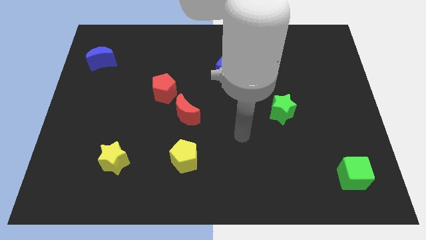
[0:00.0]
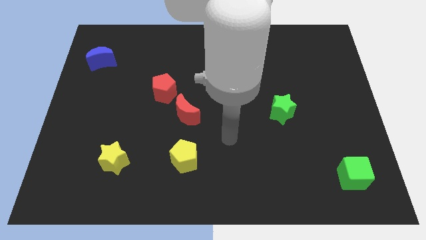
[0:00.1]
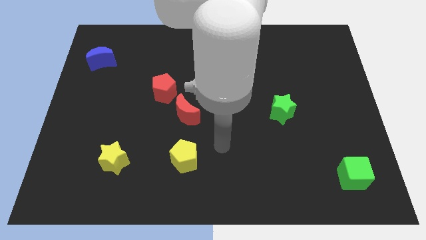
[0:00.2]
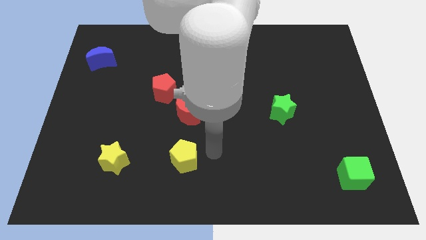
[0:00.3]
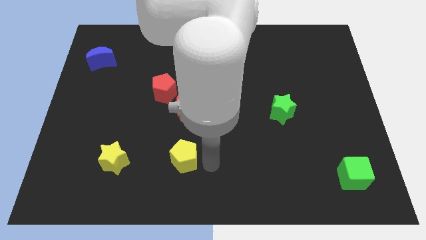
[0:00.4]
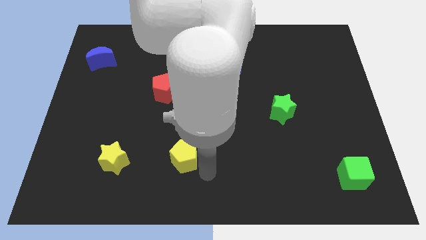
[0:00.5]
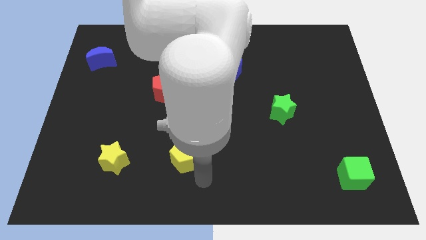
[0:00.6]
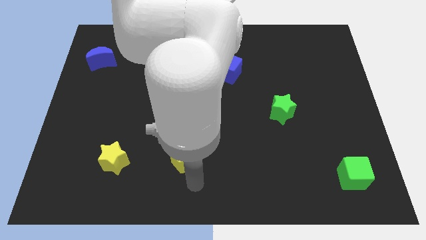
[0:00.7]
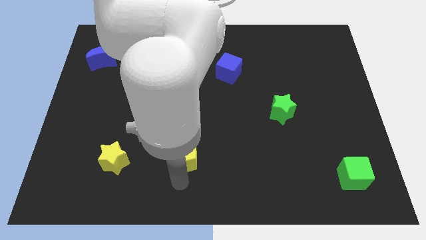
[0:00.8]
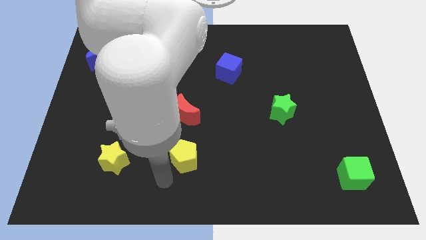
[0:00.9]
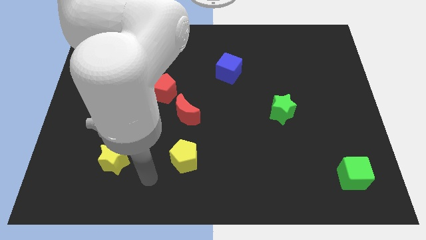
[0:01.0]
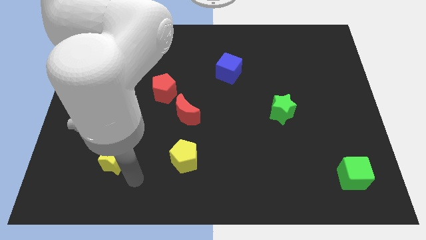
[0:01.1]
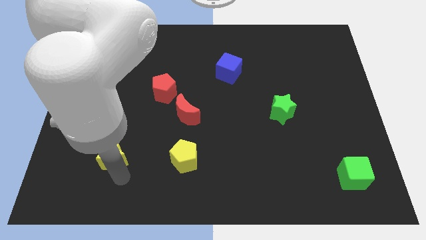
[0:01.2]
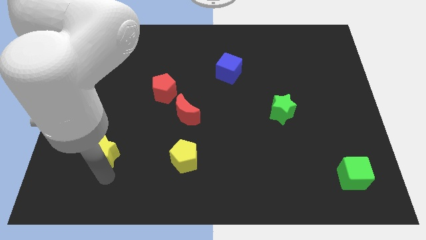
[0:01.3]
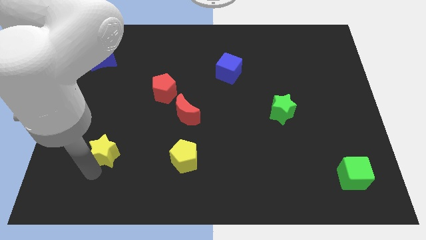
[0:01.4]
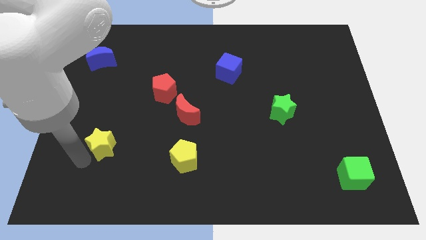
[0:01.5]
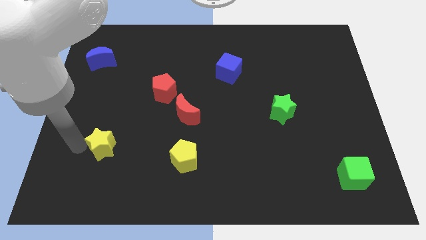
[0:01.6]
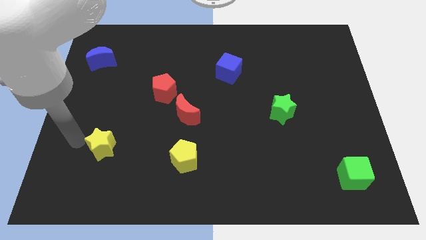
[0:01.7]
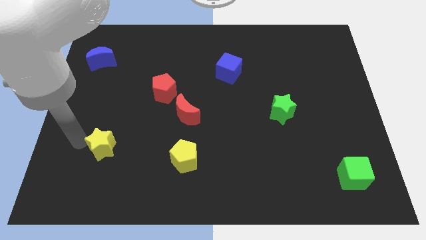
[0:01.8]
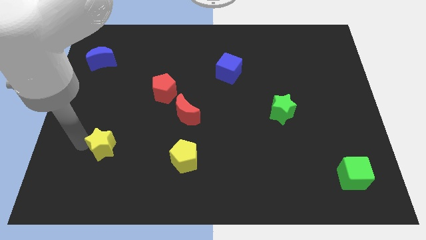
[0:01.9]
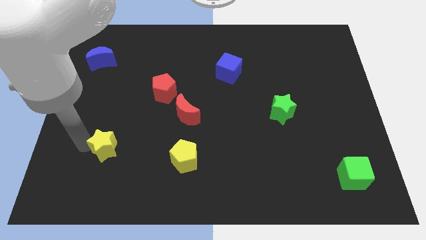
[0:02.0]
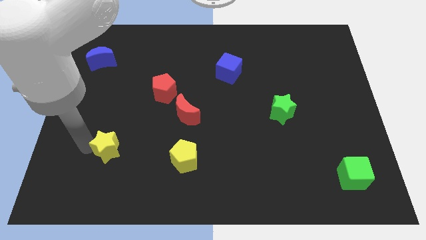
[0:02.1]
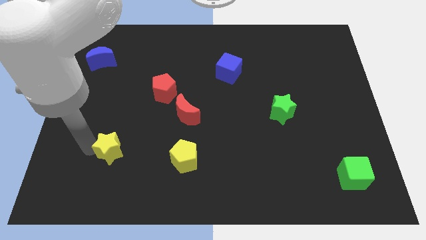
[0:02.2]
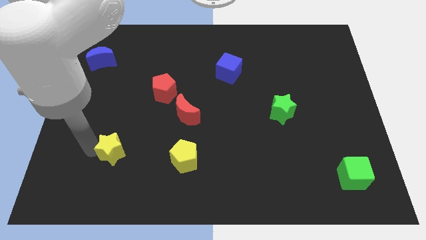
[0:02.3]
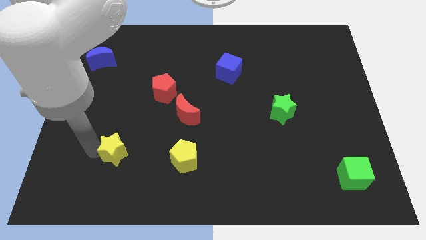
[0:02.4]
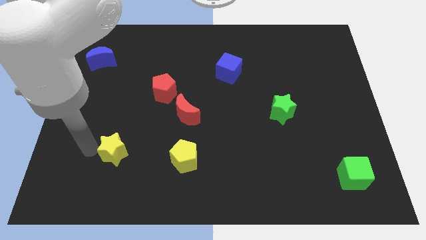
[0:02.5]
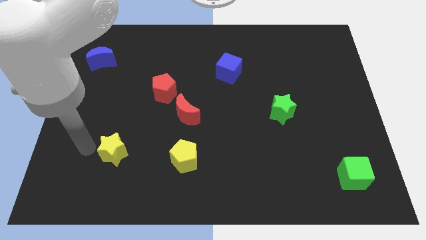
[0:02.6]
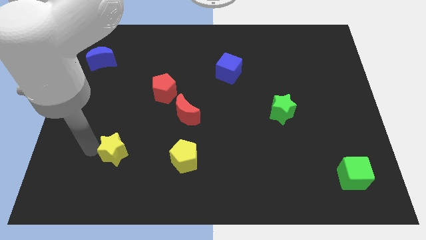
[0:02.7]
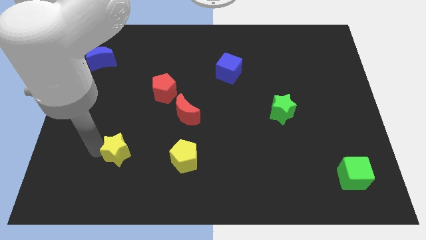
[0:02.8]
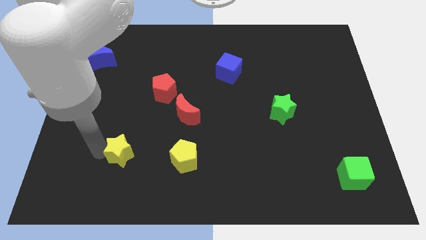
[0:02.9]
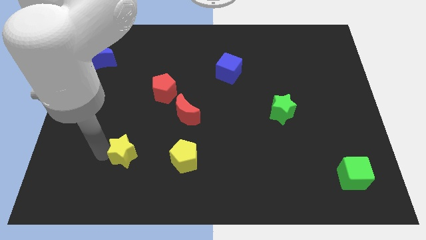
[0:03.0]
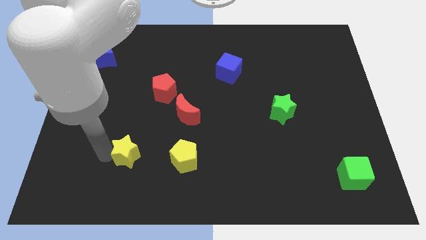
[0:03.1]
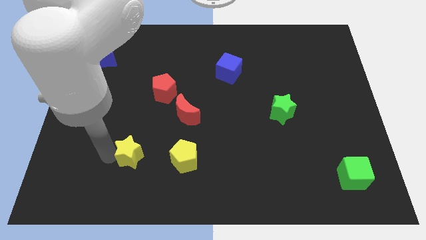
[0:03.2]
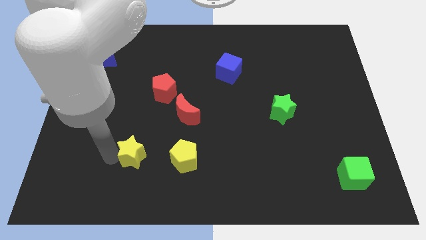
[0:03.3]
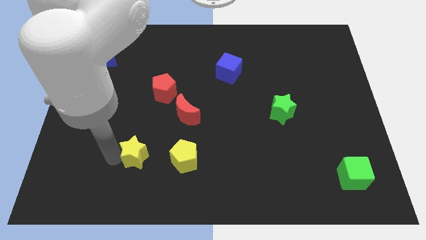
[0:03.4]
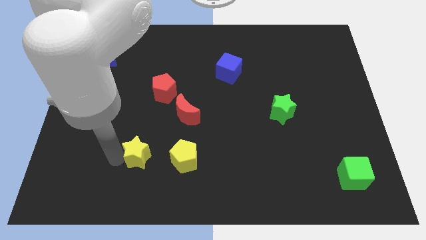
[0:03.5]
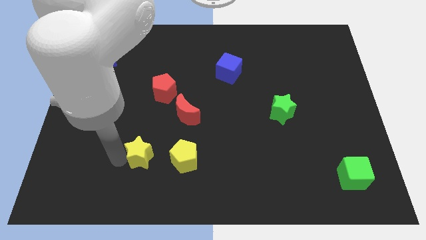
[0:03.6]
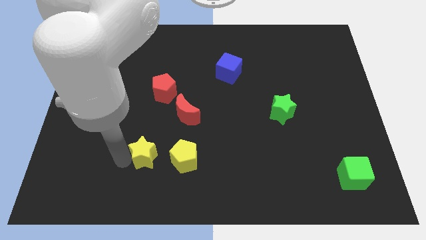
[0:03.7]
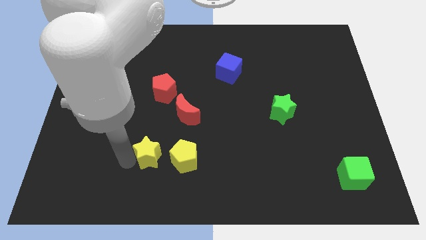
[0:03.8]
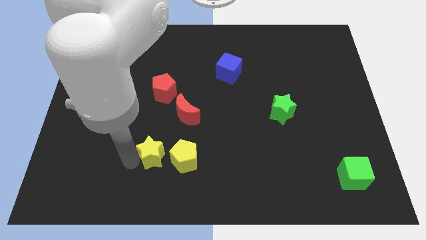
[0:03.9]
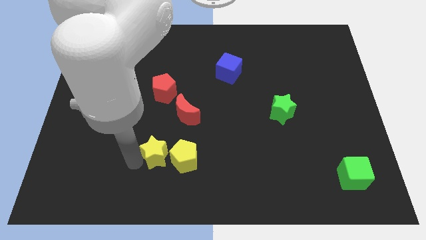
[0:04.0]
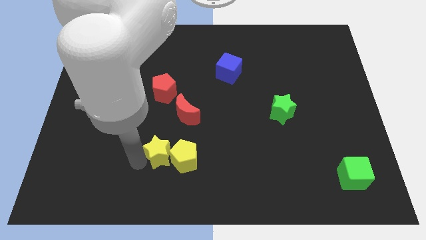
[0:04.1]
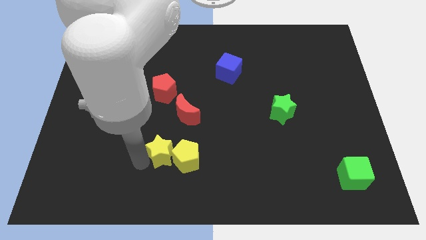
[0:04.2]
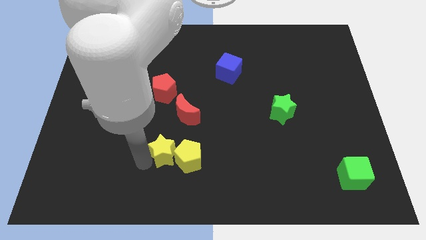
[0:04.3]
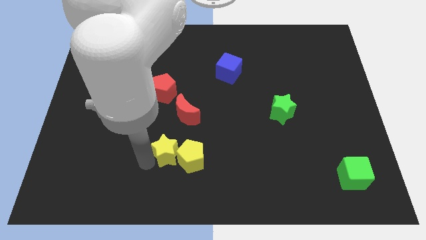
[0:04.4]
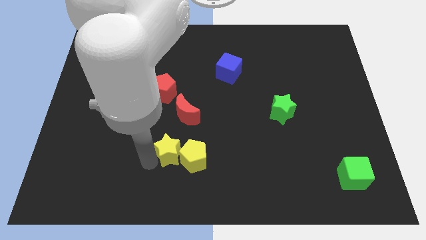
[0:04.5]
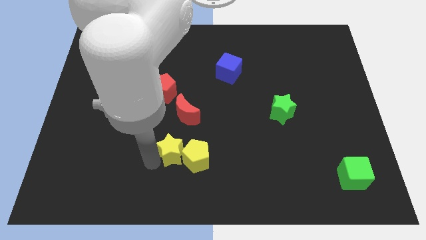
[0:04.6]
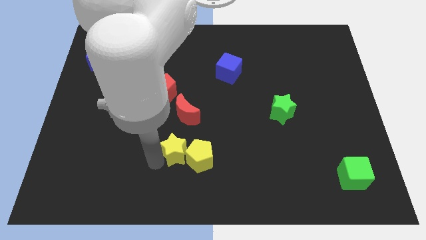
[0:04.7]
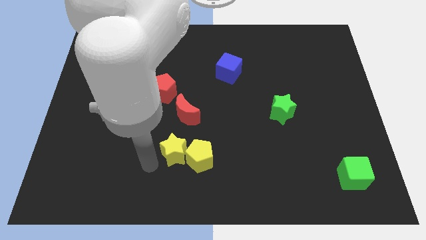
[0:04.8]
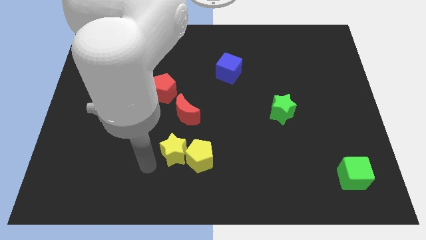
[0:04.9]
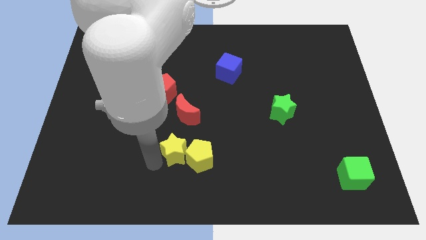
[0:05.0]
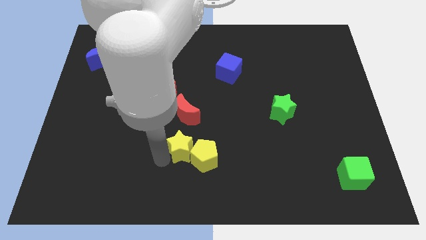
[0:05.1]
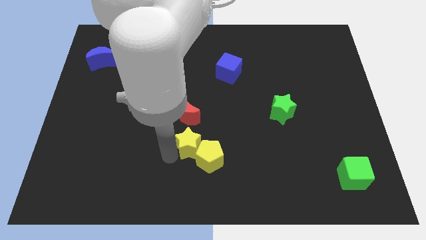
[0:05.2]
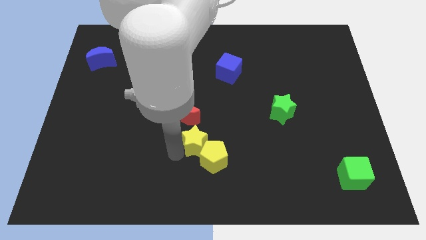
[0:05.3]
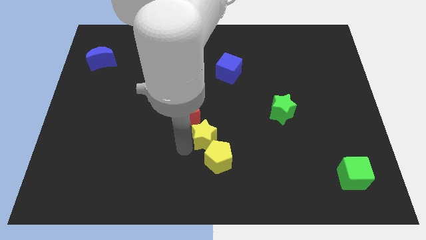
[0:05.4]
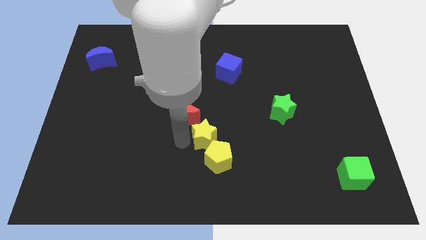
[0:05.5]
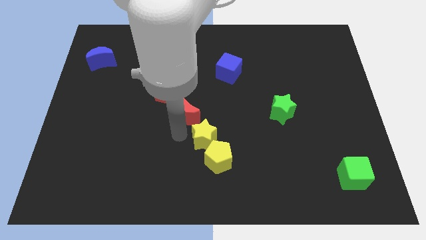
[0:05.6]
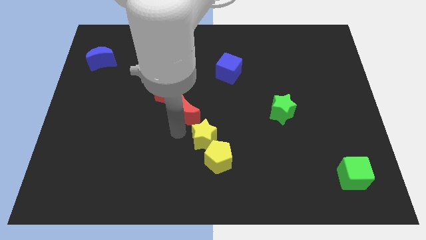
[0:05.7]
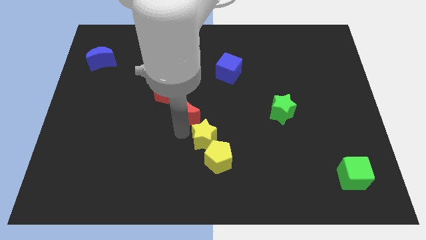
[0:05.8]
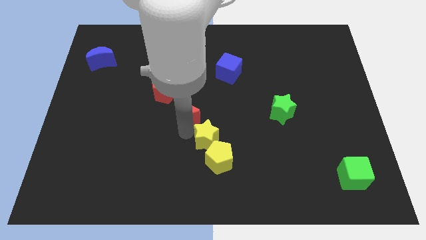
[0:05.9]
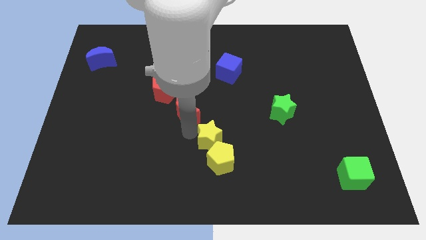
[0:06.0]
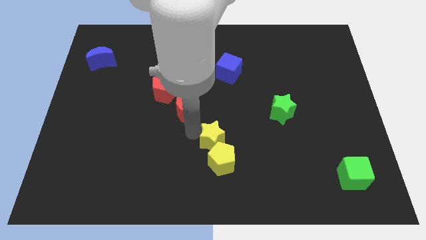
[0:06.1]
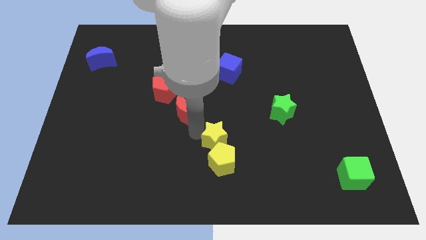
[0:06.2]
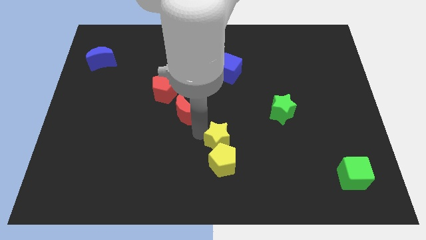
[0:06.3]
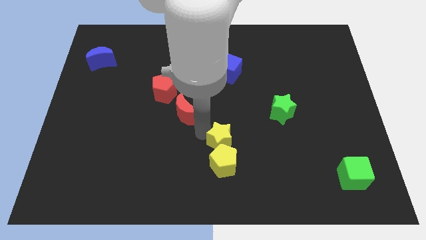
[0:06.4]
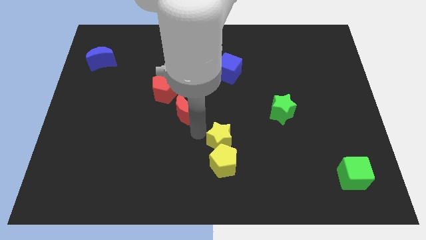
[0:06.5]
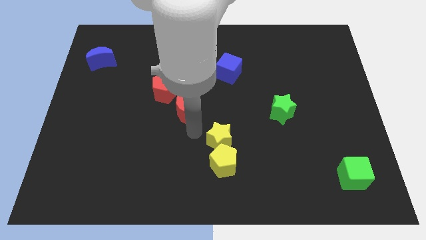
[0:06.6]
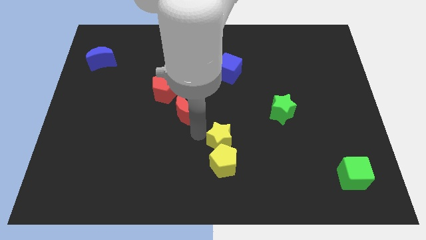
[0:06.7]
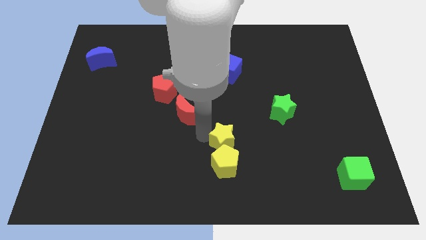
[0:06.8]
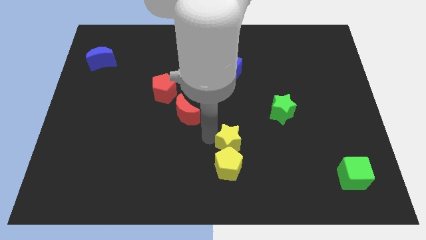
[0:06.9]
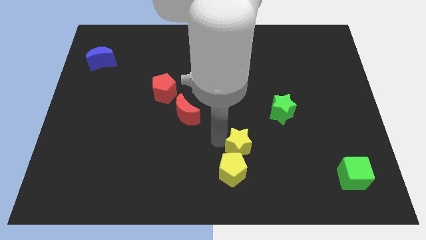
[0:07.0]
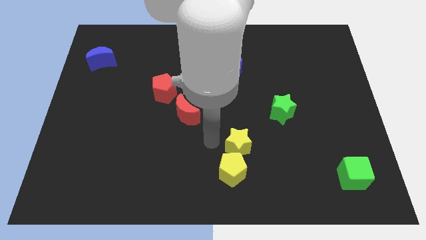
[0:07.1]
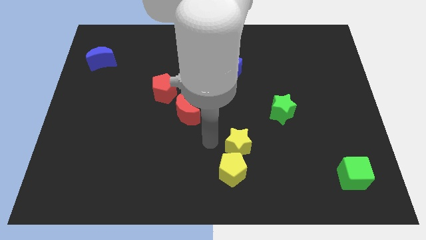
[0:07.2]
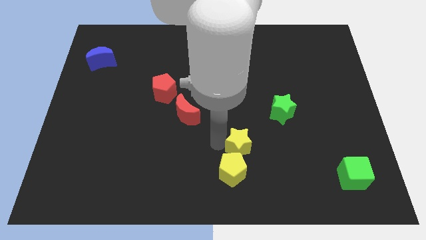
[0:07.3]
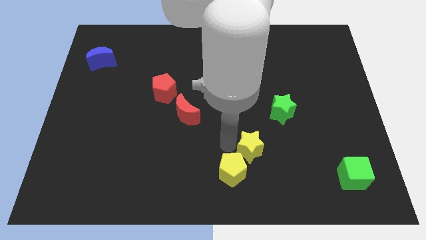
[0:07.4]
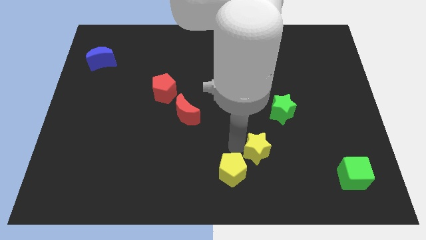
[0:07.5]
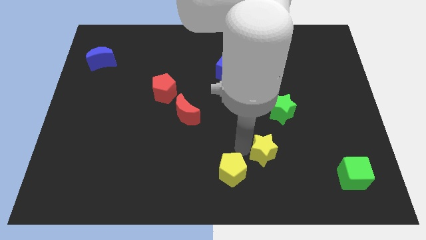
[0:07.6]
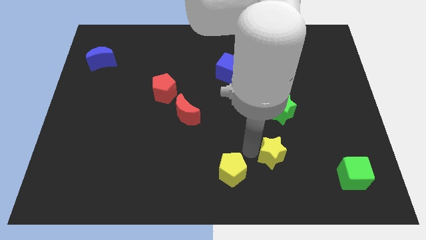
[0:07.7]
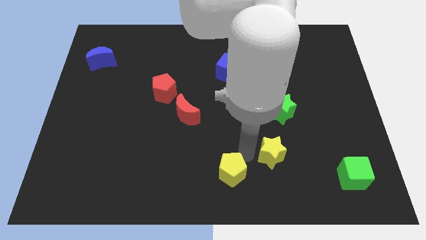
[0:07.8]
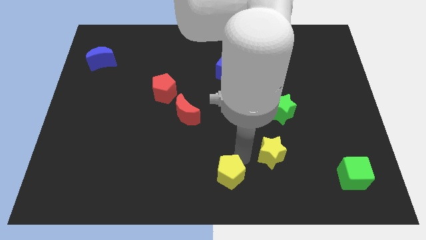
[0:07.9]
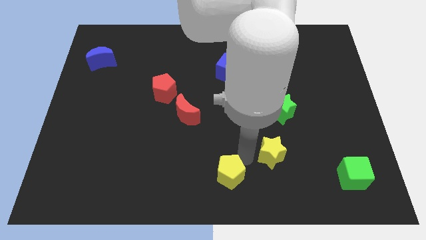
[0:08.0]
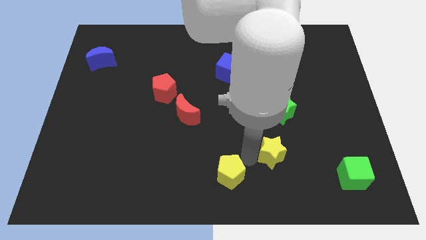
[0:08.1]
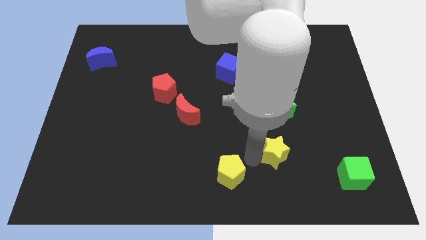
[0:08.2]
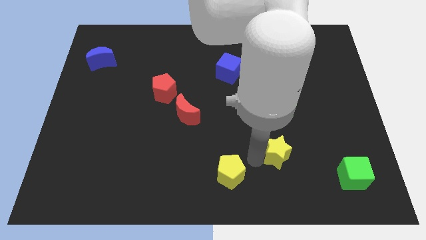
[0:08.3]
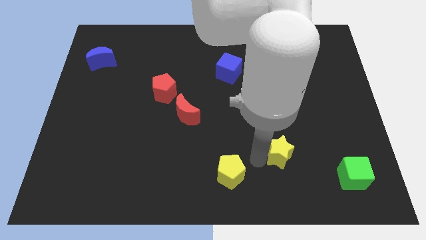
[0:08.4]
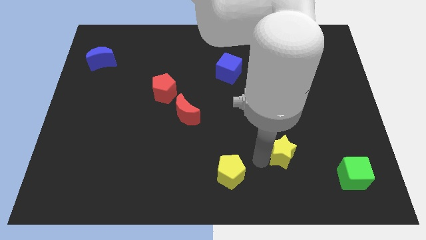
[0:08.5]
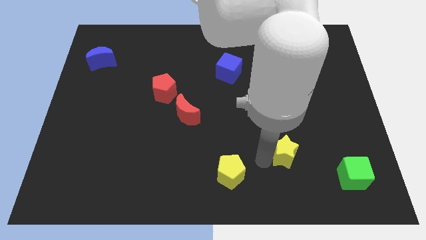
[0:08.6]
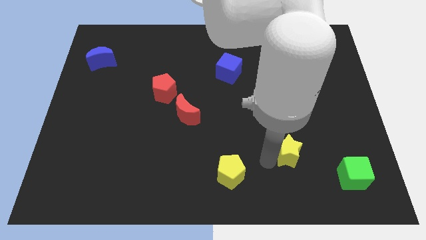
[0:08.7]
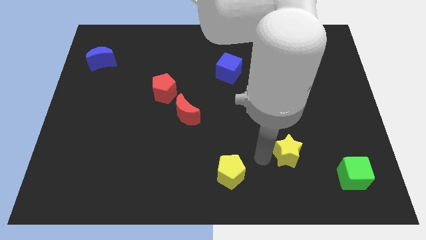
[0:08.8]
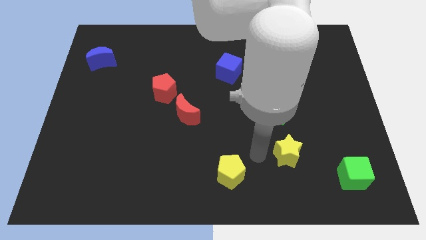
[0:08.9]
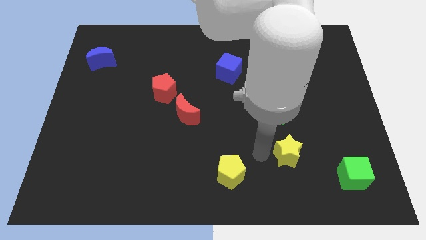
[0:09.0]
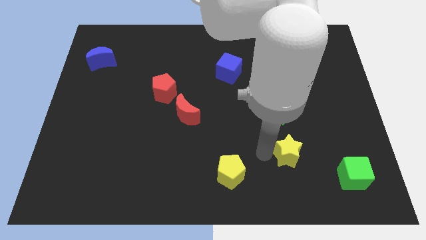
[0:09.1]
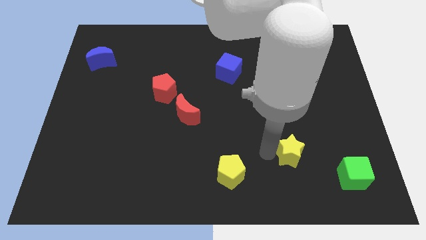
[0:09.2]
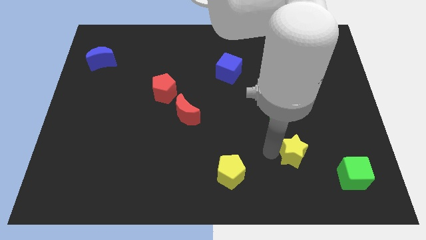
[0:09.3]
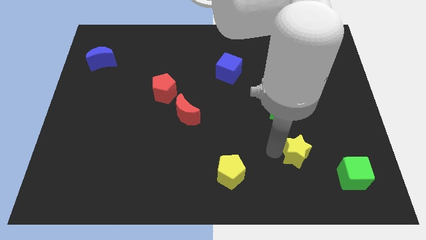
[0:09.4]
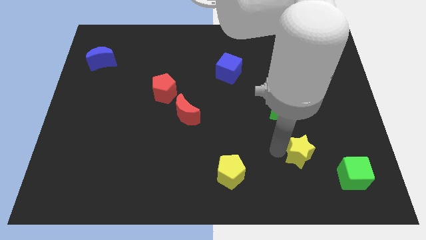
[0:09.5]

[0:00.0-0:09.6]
move the yellow star to the top left of the green cube
